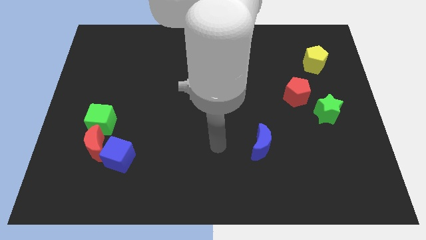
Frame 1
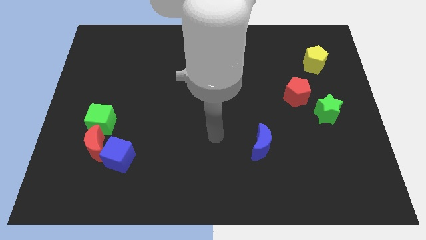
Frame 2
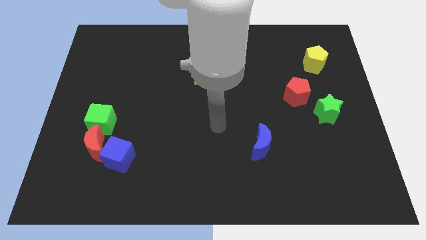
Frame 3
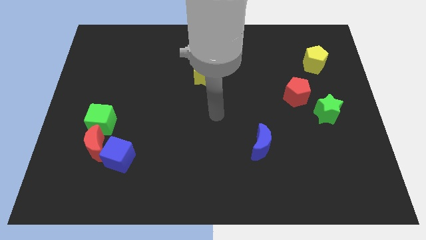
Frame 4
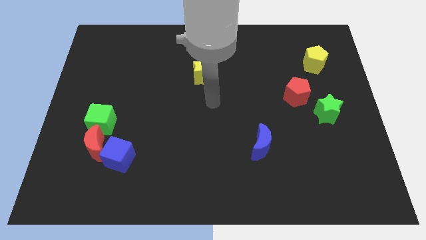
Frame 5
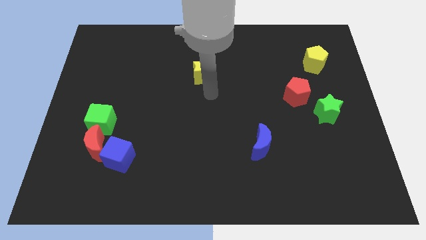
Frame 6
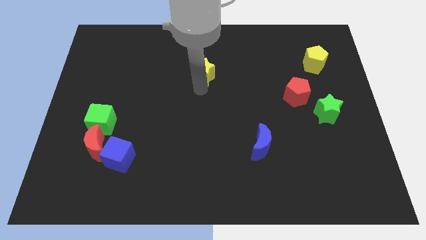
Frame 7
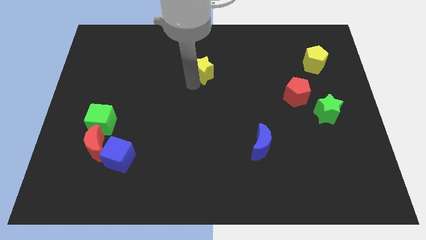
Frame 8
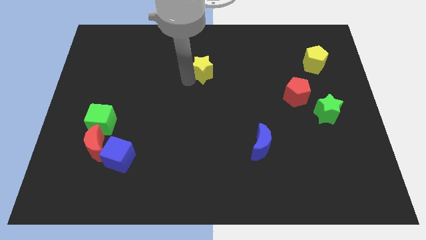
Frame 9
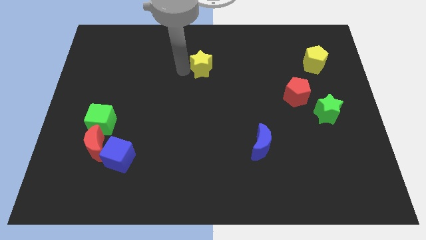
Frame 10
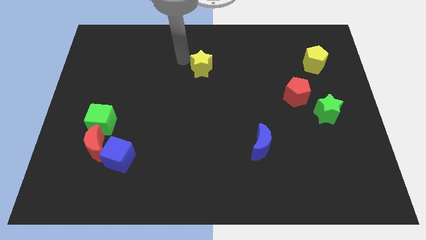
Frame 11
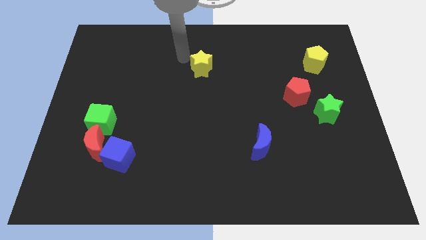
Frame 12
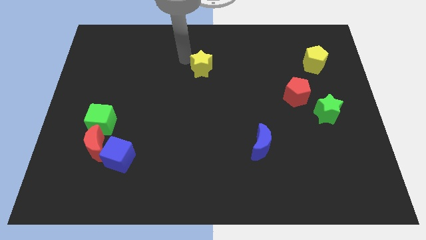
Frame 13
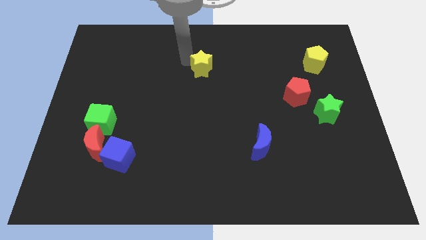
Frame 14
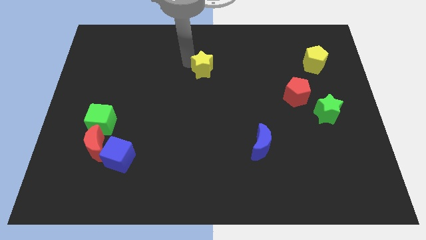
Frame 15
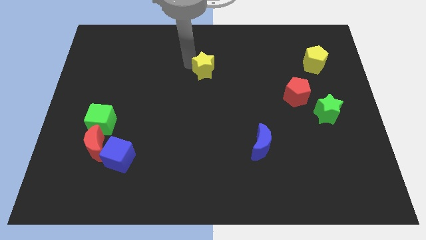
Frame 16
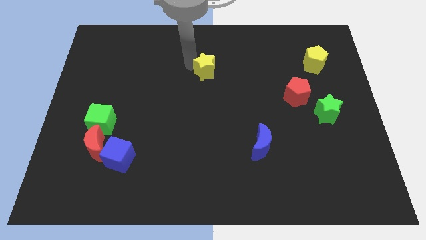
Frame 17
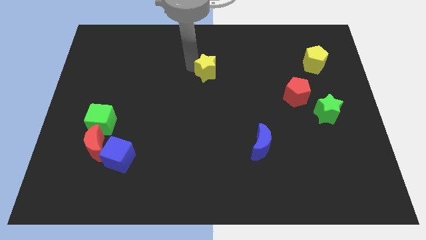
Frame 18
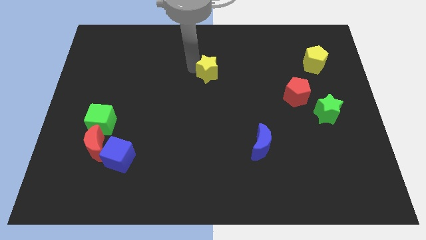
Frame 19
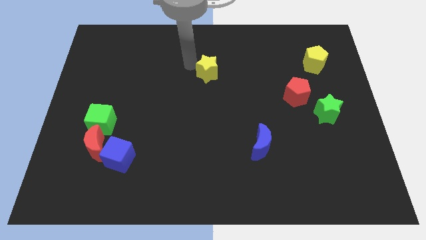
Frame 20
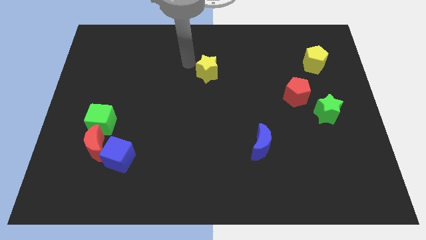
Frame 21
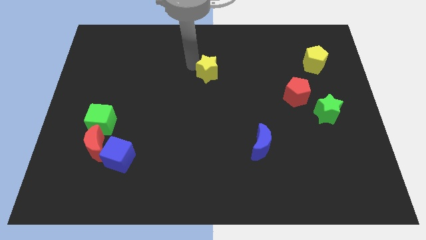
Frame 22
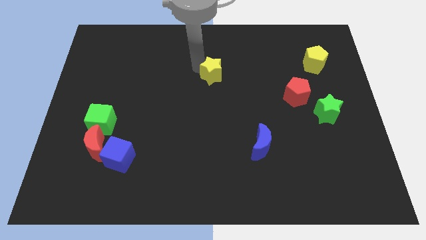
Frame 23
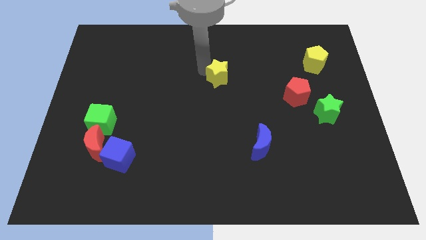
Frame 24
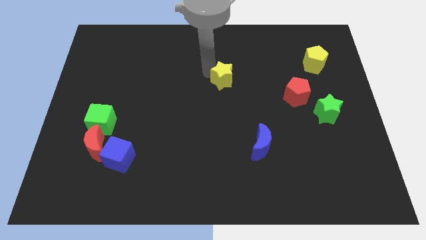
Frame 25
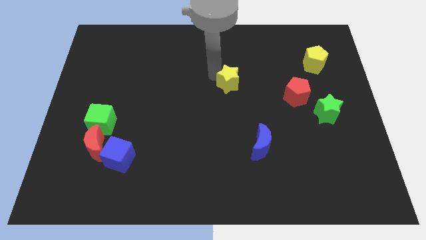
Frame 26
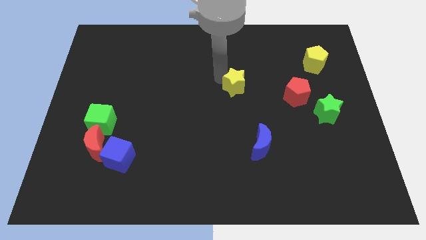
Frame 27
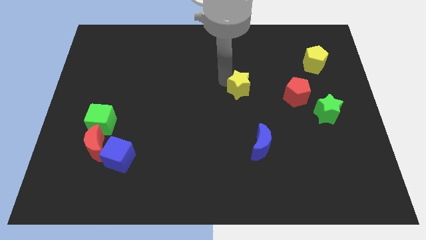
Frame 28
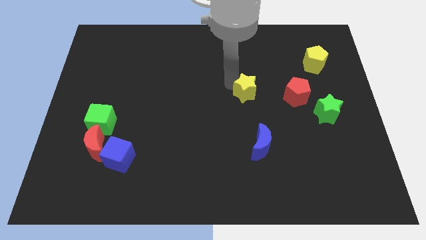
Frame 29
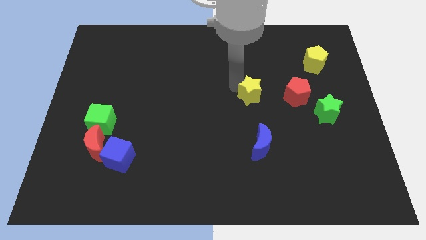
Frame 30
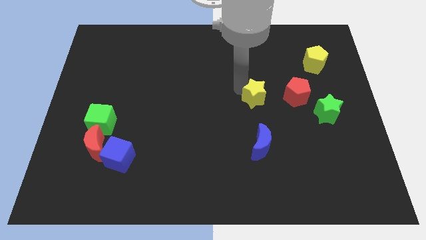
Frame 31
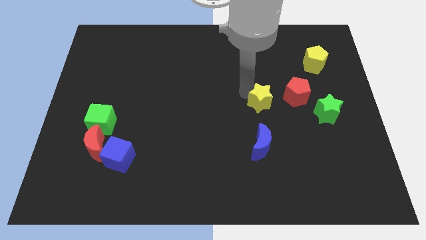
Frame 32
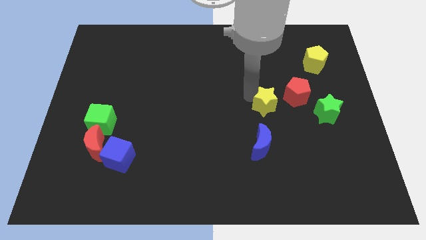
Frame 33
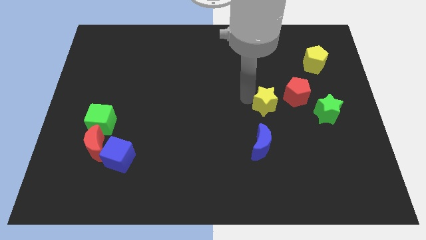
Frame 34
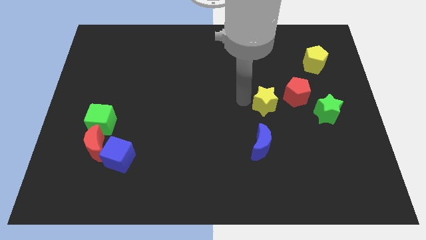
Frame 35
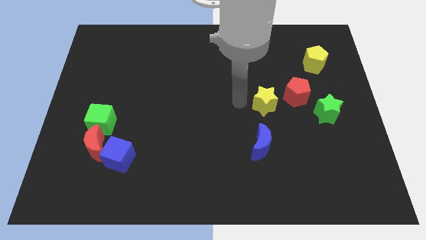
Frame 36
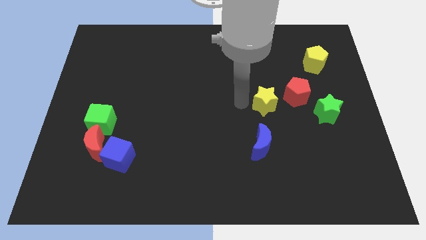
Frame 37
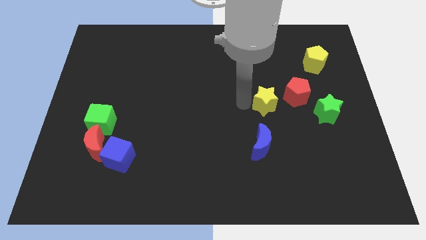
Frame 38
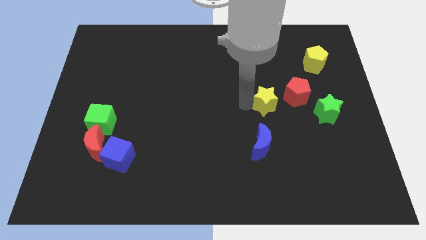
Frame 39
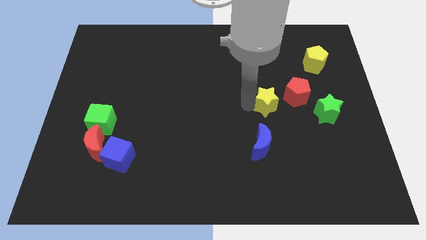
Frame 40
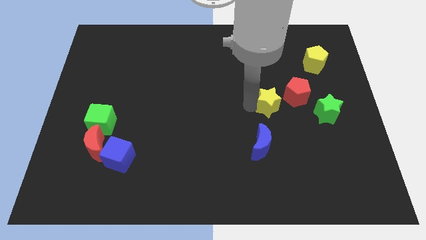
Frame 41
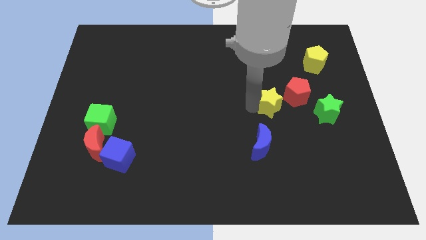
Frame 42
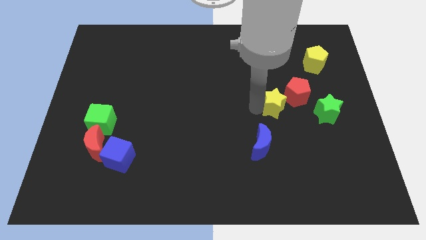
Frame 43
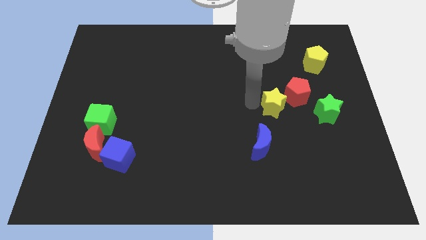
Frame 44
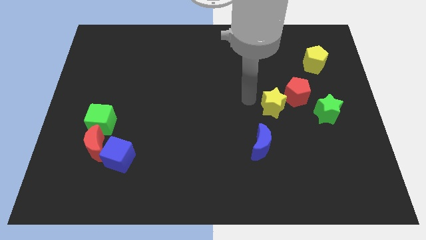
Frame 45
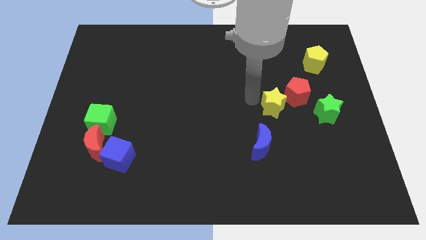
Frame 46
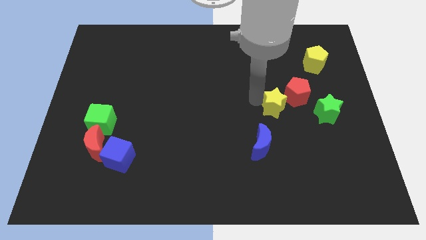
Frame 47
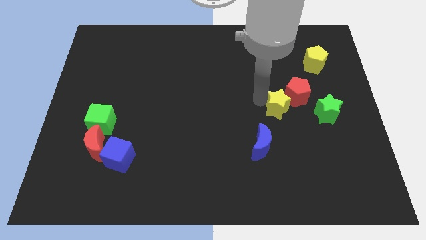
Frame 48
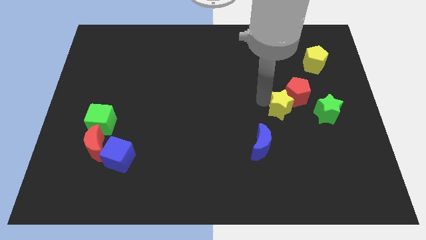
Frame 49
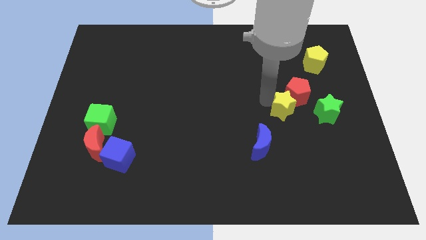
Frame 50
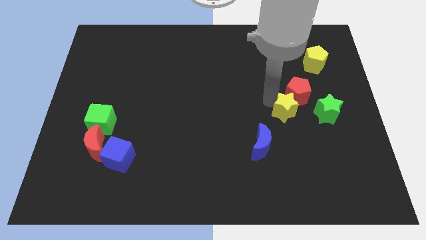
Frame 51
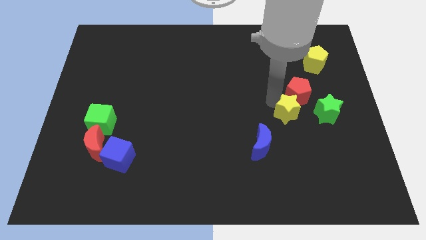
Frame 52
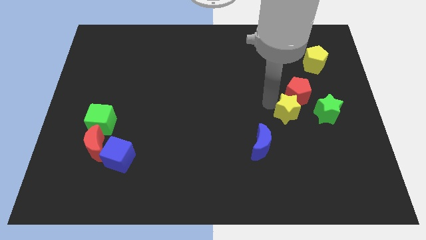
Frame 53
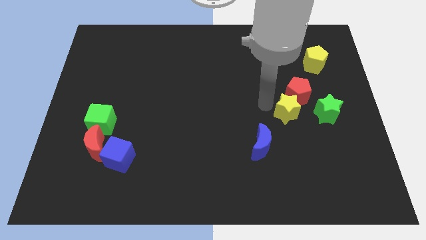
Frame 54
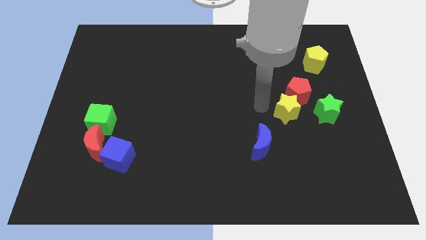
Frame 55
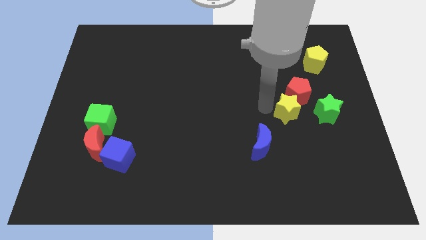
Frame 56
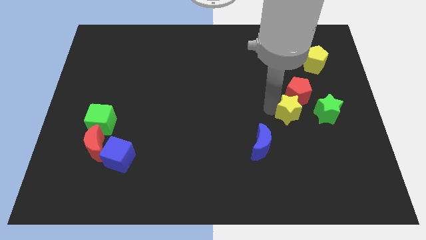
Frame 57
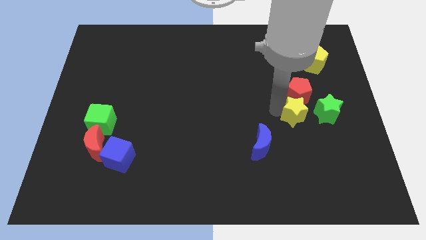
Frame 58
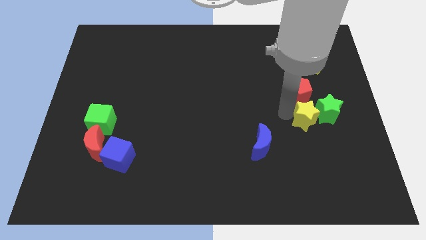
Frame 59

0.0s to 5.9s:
push the yellow star towards the green star

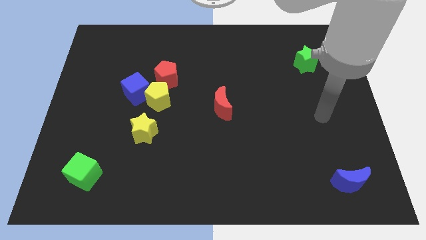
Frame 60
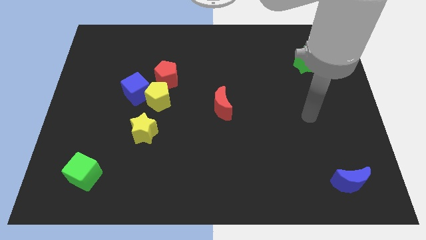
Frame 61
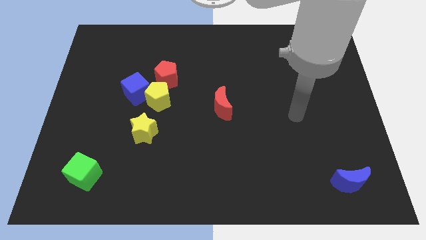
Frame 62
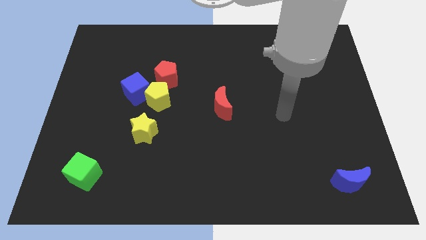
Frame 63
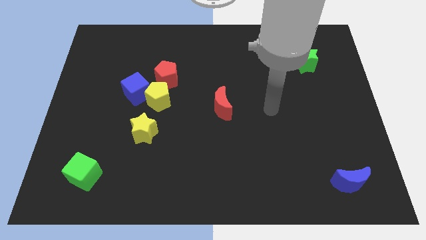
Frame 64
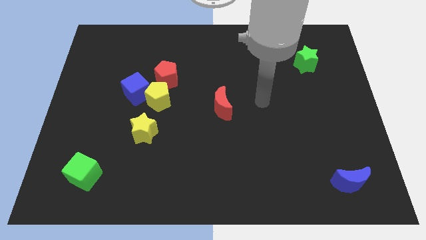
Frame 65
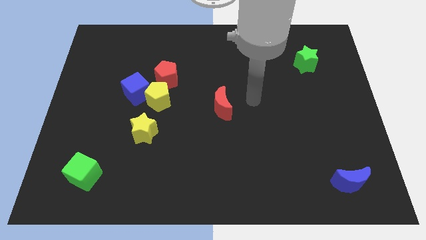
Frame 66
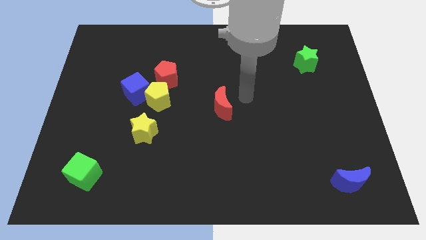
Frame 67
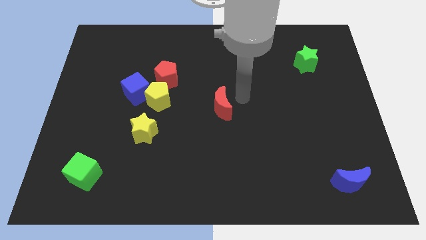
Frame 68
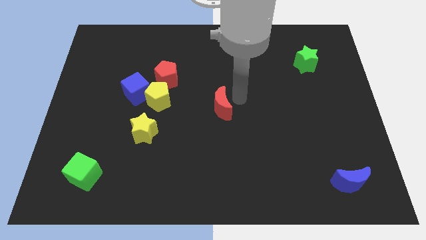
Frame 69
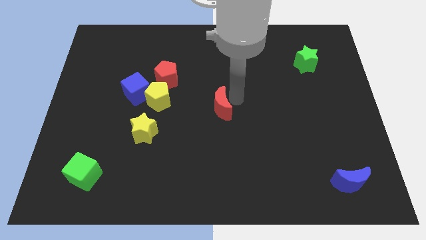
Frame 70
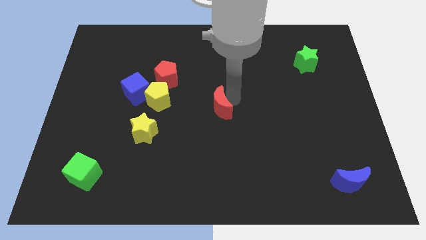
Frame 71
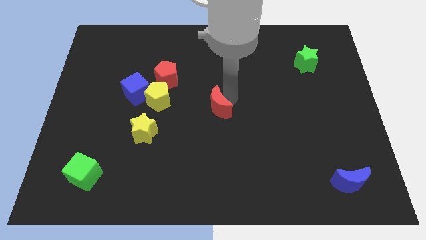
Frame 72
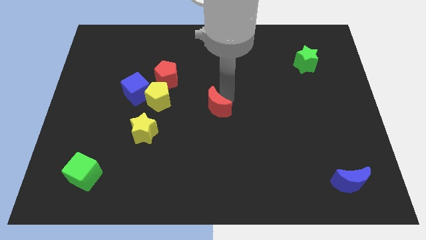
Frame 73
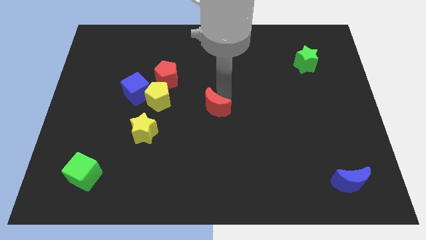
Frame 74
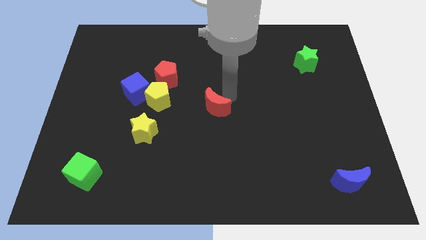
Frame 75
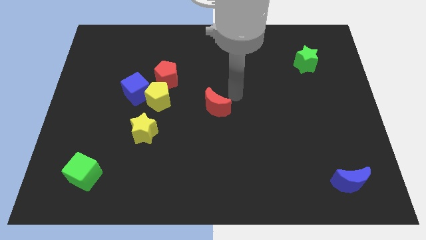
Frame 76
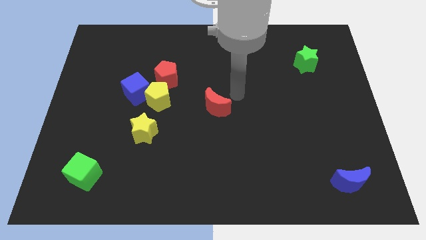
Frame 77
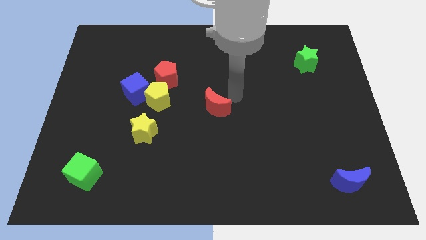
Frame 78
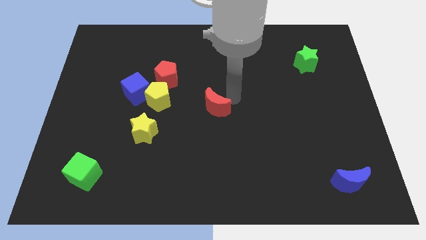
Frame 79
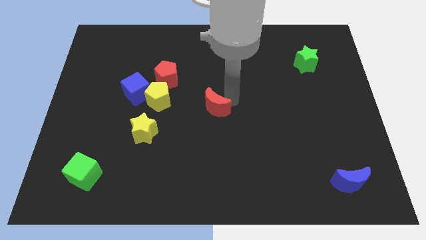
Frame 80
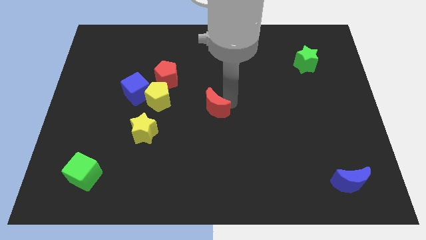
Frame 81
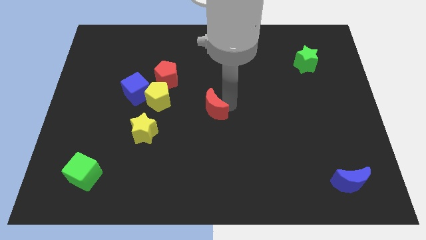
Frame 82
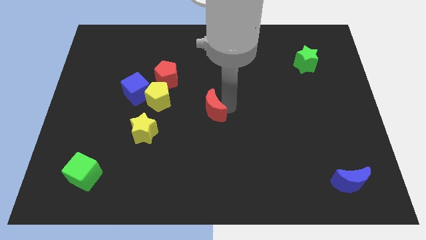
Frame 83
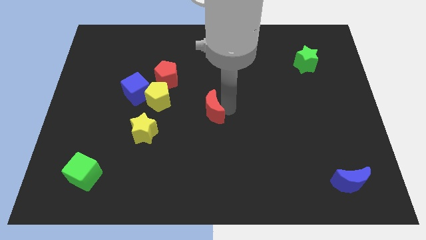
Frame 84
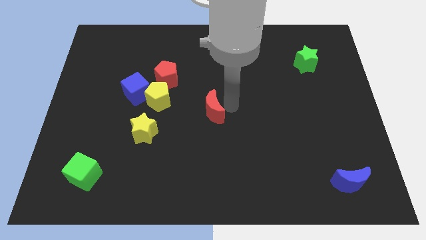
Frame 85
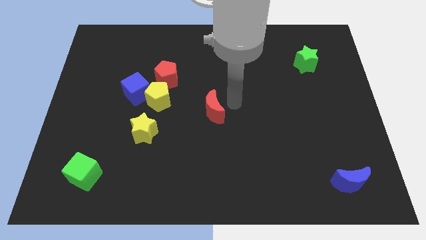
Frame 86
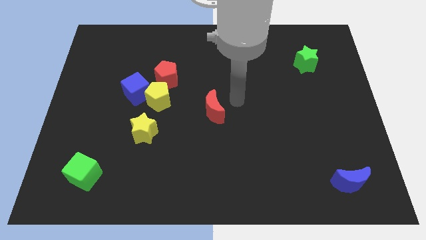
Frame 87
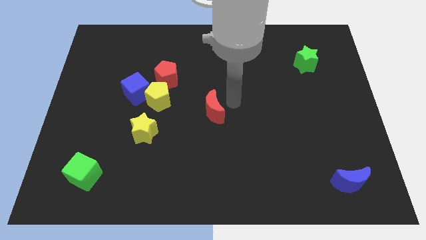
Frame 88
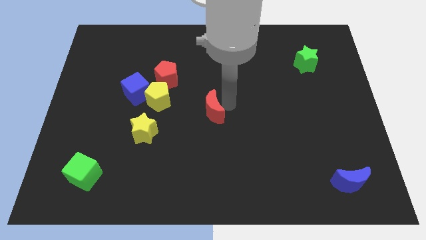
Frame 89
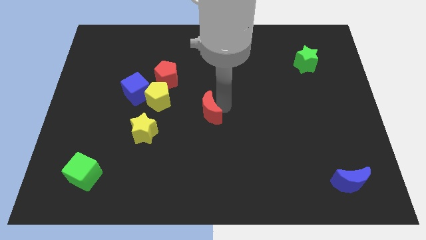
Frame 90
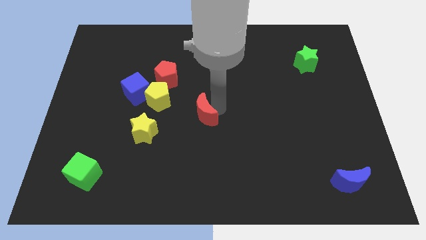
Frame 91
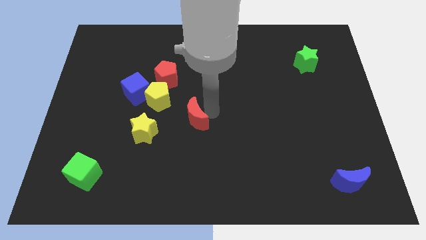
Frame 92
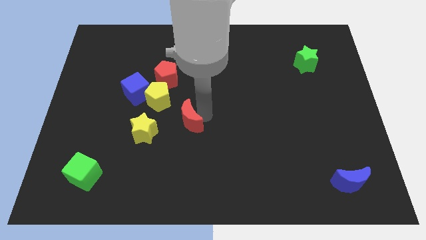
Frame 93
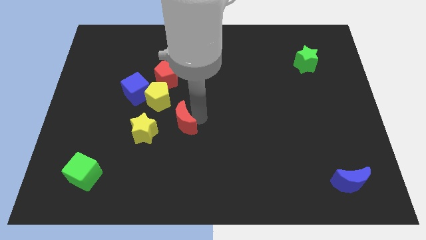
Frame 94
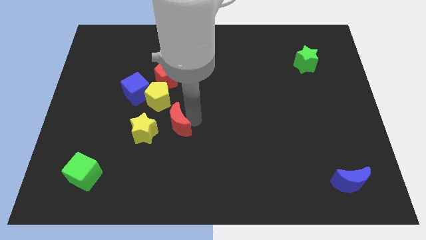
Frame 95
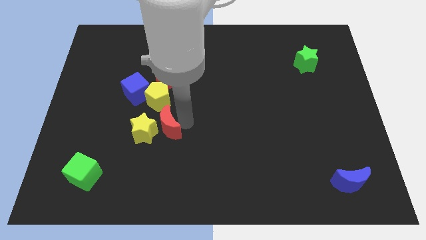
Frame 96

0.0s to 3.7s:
slide the red moon towards the yellow star
